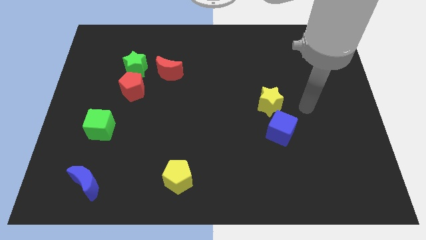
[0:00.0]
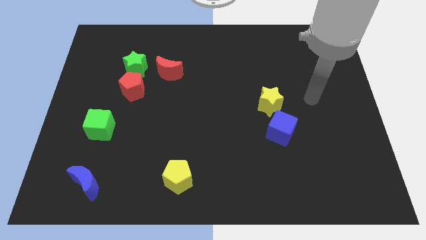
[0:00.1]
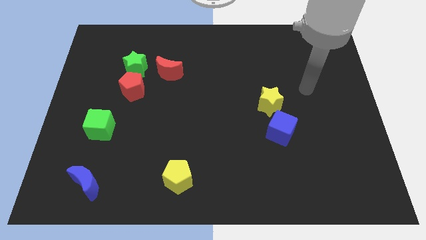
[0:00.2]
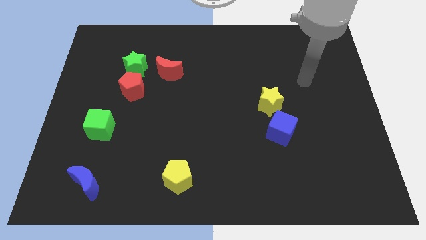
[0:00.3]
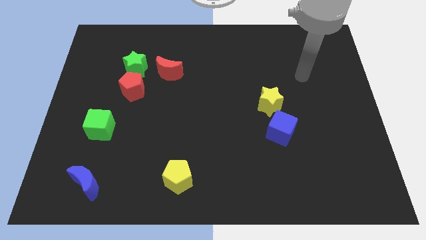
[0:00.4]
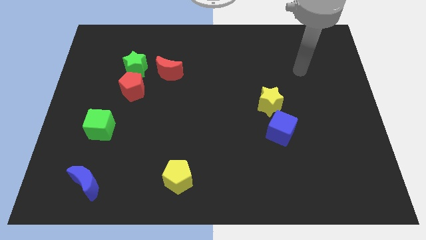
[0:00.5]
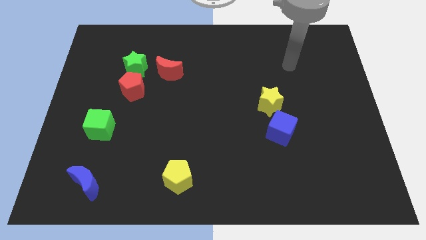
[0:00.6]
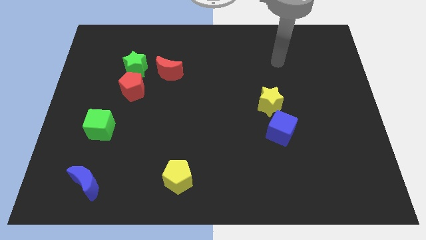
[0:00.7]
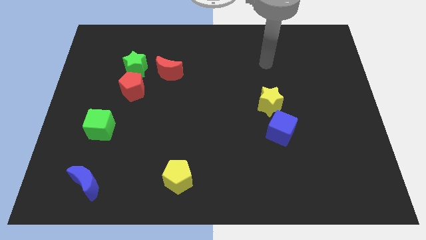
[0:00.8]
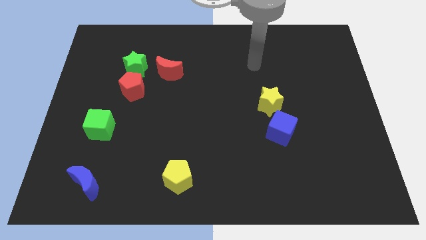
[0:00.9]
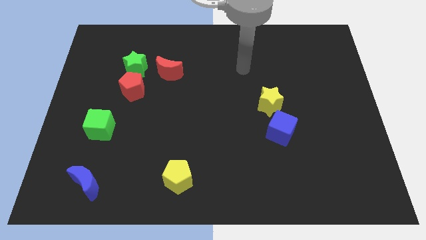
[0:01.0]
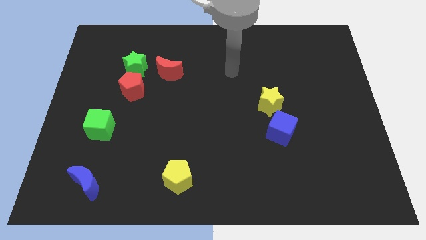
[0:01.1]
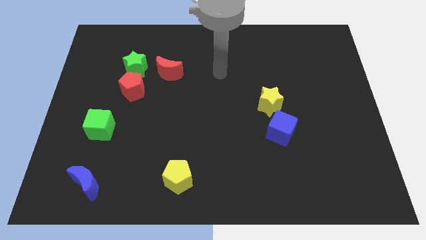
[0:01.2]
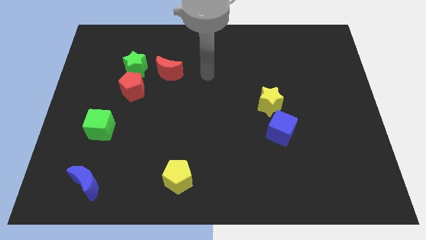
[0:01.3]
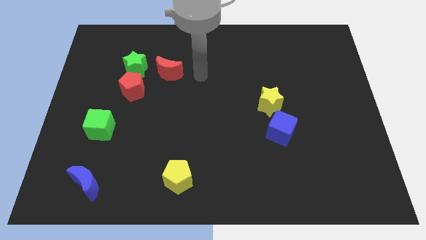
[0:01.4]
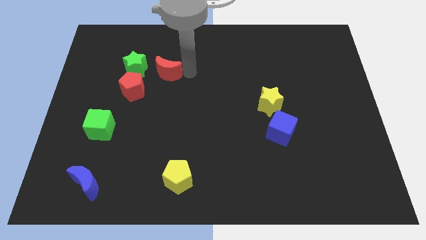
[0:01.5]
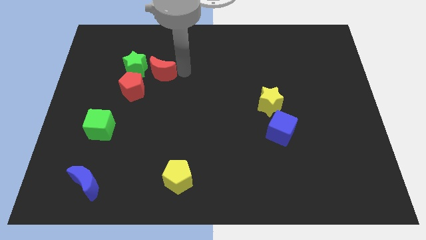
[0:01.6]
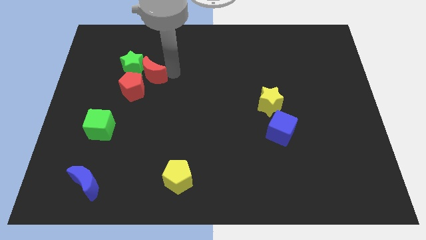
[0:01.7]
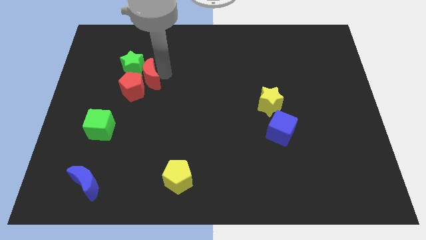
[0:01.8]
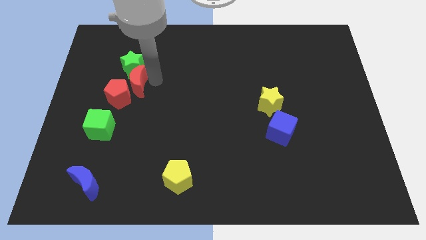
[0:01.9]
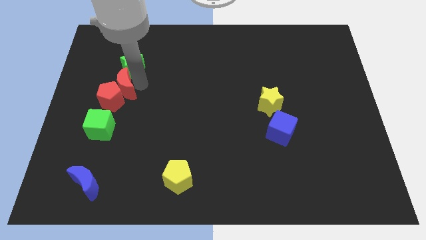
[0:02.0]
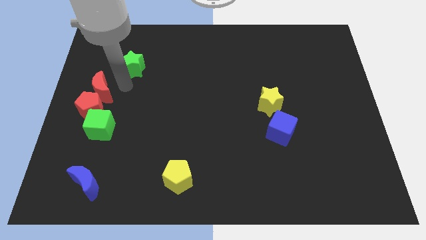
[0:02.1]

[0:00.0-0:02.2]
move the green star away from the red pentagon and red moon

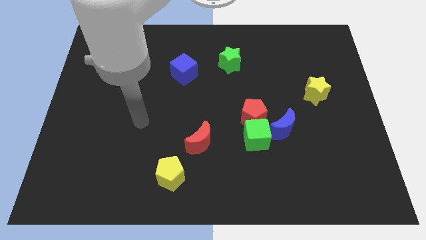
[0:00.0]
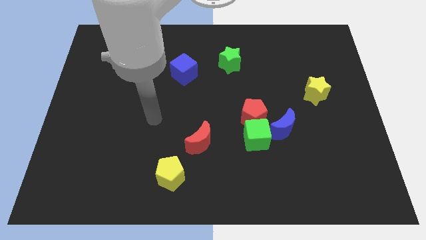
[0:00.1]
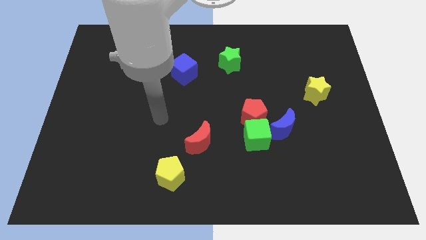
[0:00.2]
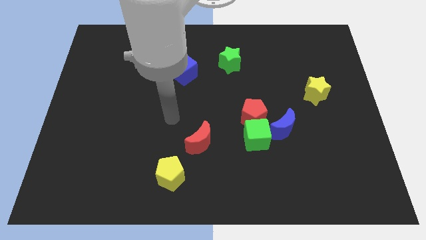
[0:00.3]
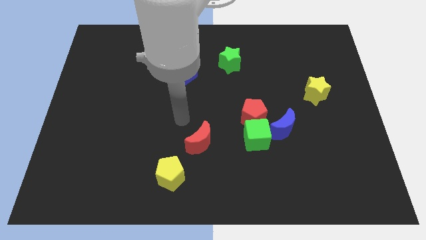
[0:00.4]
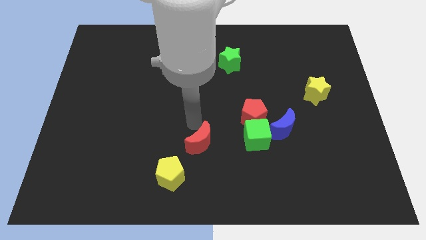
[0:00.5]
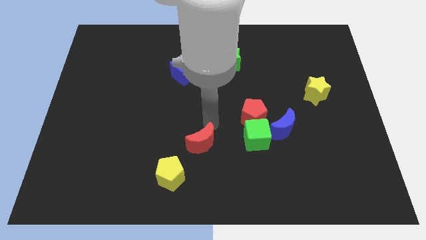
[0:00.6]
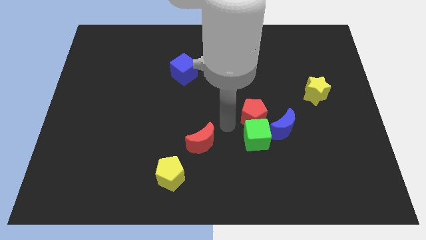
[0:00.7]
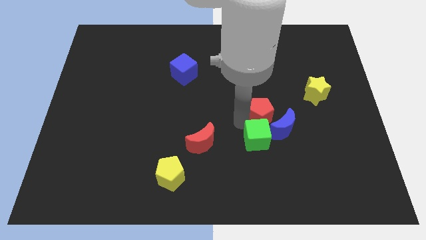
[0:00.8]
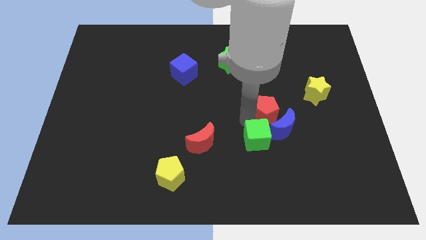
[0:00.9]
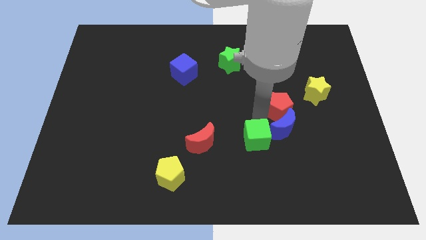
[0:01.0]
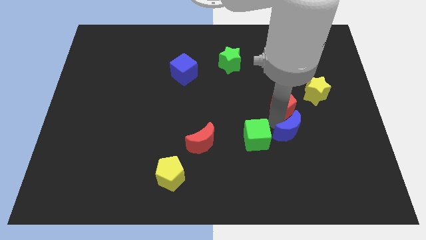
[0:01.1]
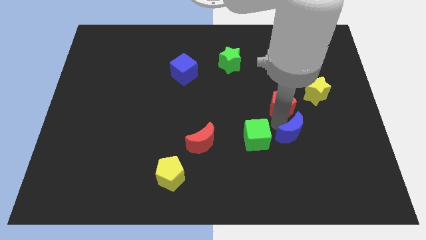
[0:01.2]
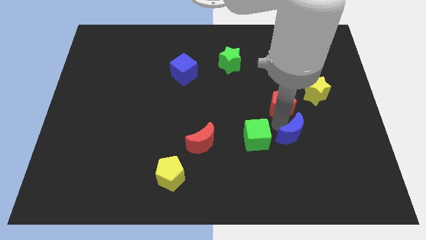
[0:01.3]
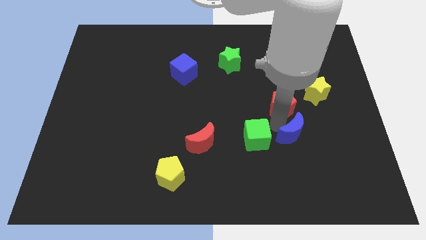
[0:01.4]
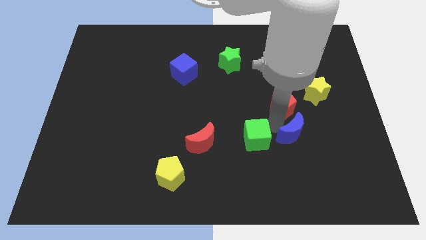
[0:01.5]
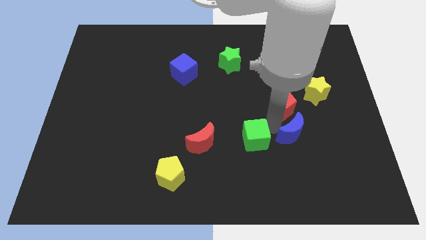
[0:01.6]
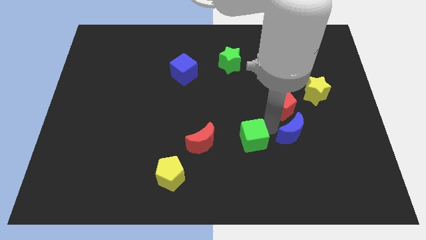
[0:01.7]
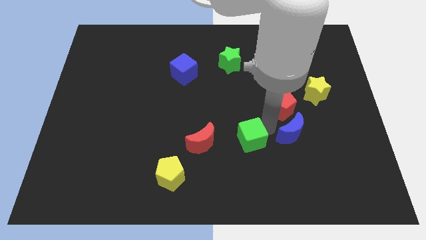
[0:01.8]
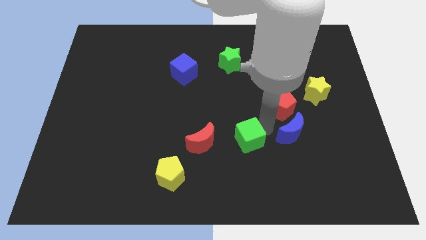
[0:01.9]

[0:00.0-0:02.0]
move the green cube away from the red pentagon and blue moon

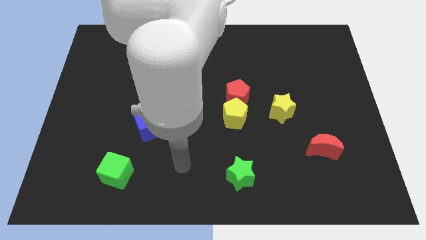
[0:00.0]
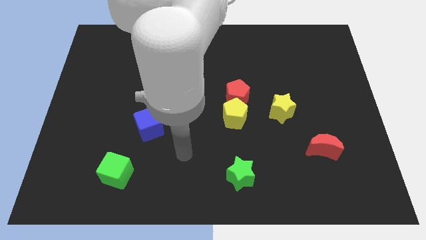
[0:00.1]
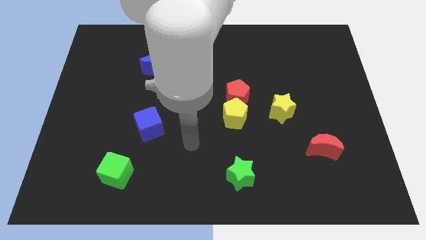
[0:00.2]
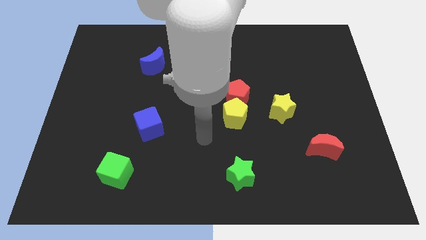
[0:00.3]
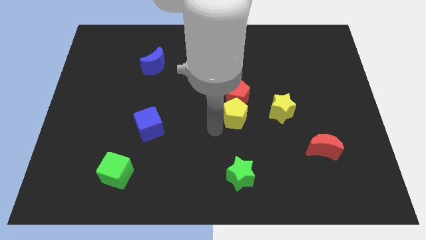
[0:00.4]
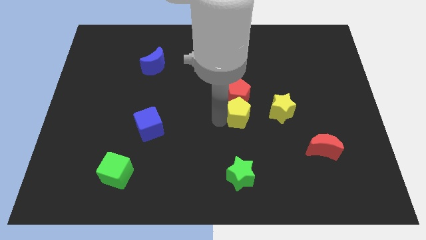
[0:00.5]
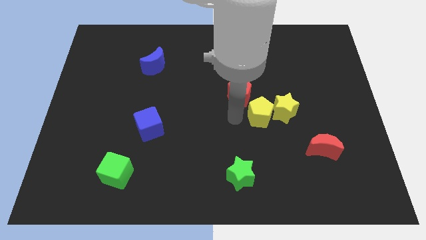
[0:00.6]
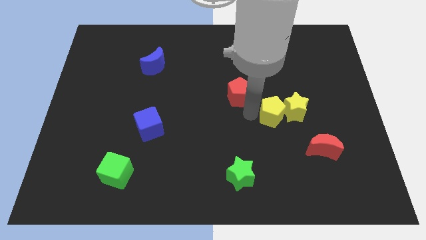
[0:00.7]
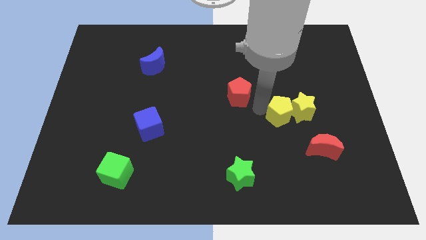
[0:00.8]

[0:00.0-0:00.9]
pull the red pentagon apart from the yellow pentagon

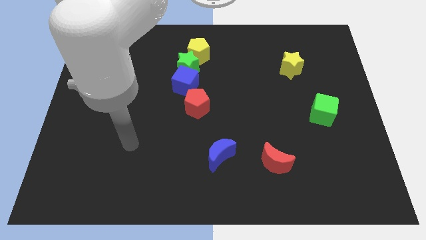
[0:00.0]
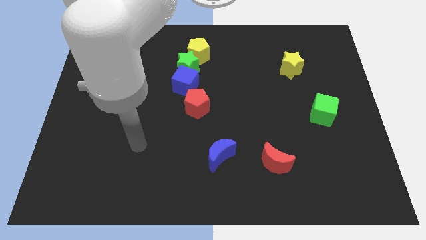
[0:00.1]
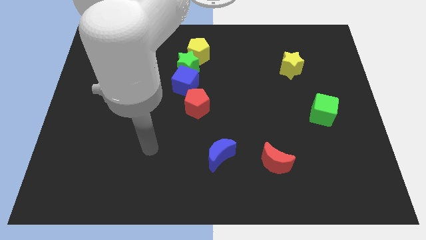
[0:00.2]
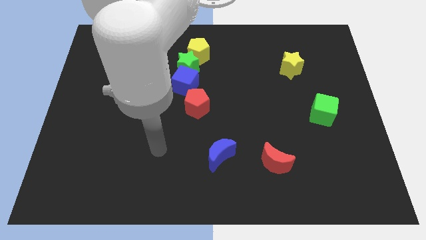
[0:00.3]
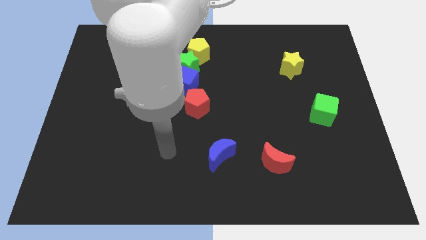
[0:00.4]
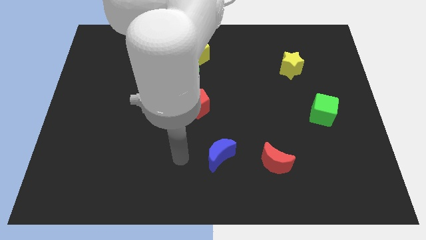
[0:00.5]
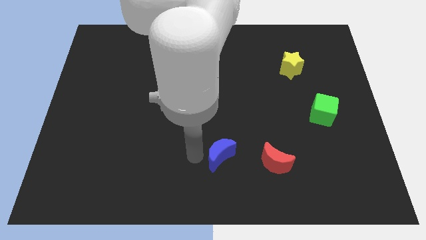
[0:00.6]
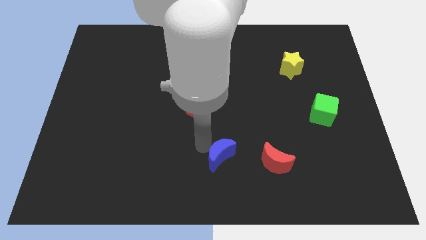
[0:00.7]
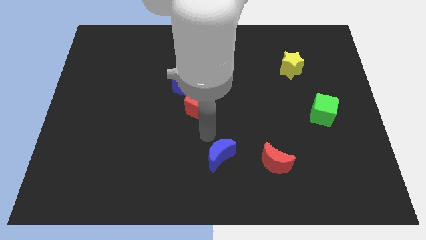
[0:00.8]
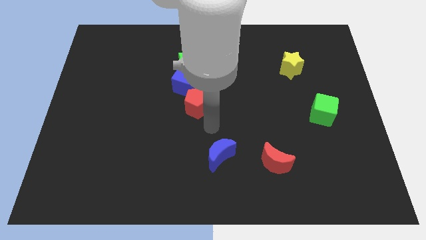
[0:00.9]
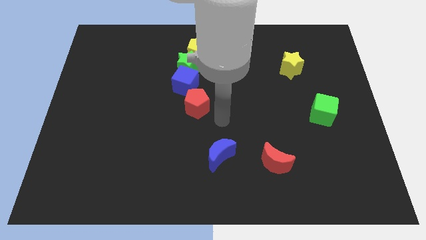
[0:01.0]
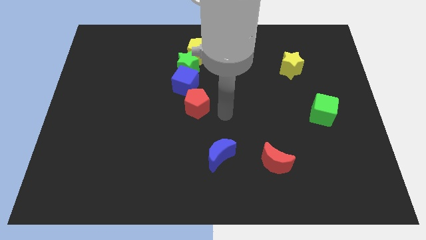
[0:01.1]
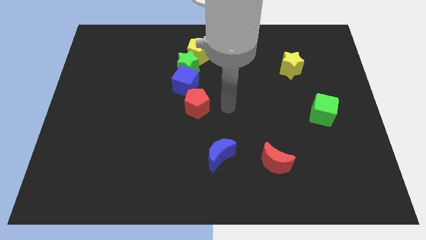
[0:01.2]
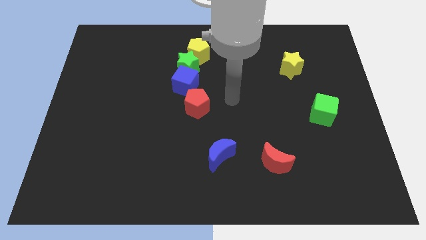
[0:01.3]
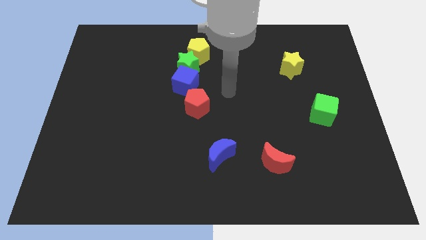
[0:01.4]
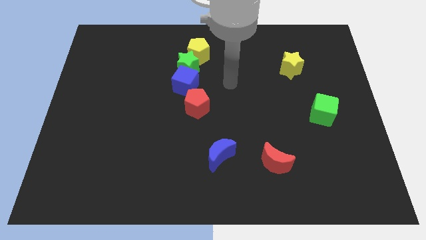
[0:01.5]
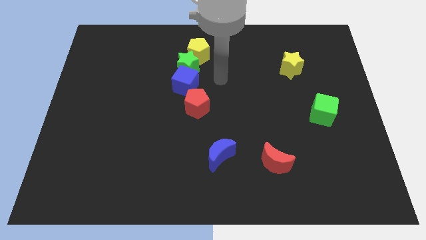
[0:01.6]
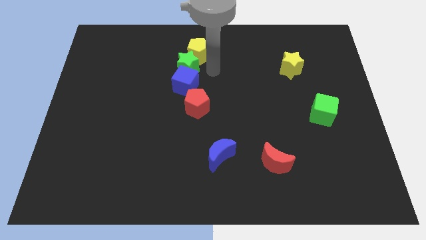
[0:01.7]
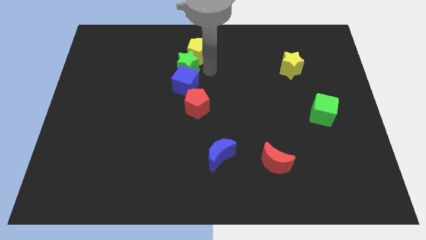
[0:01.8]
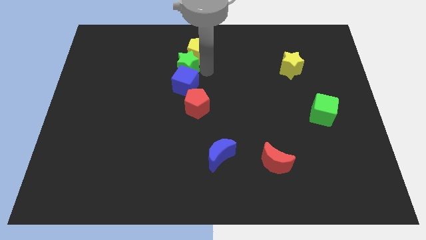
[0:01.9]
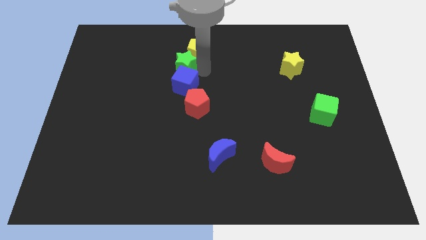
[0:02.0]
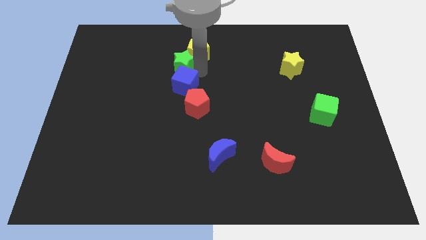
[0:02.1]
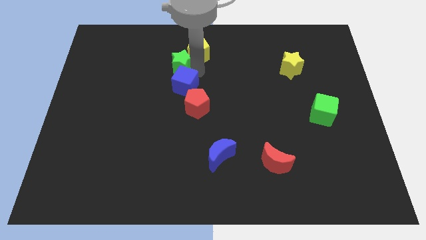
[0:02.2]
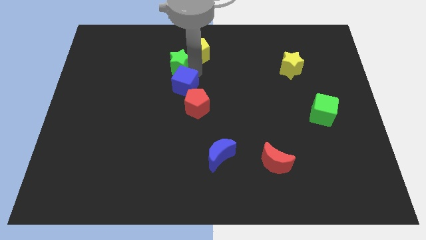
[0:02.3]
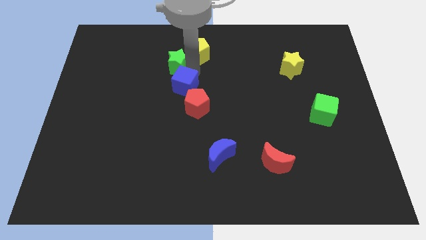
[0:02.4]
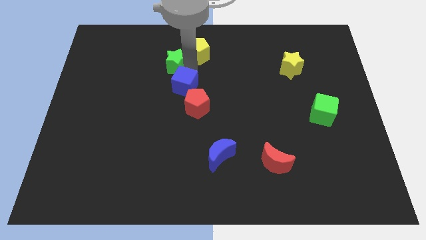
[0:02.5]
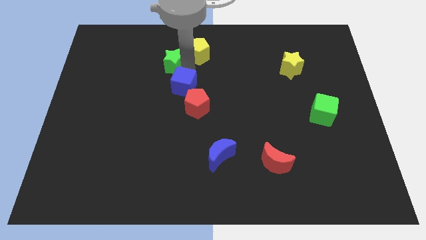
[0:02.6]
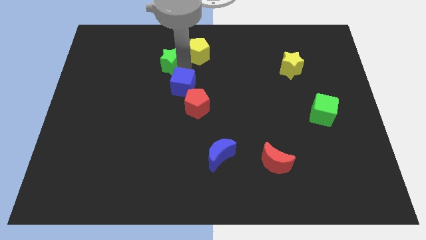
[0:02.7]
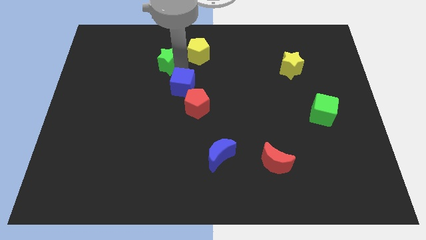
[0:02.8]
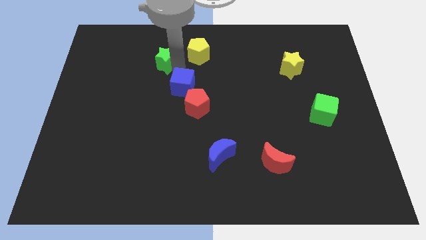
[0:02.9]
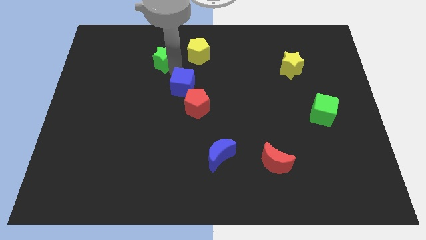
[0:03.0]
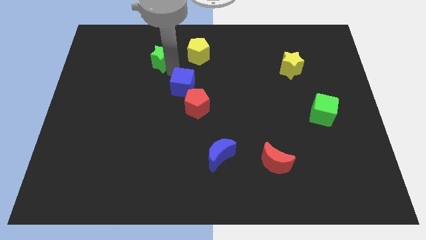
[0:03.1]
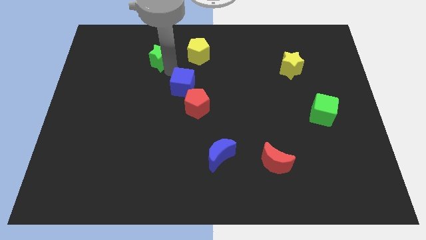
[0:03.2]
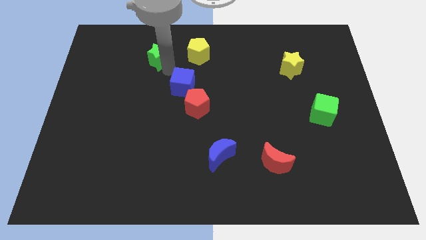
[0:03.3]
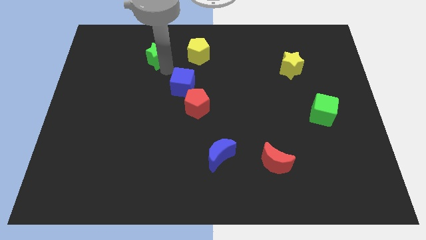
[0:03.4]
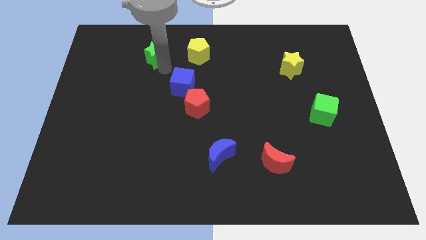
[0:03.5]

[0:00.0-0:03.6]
pull the green star apart from the blue cube and yellow pentagon

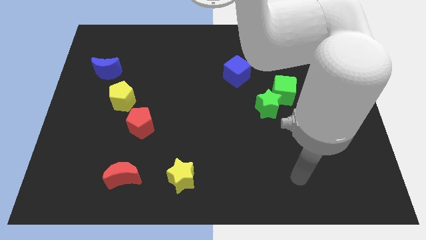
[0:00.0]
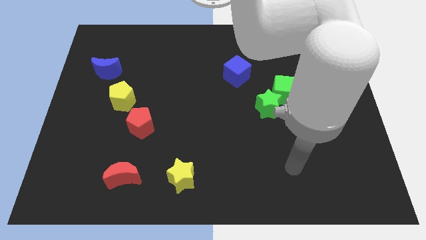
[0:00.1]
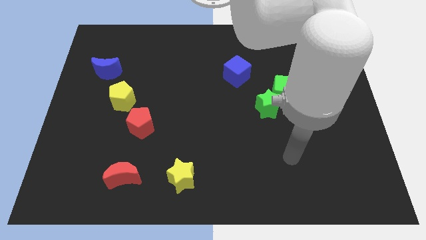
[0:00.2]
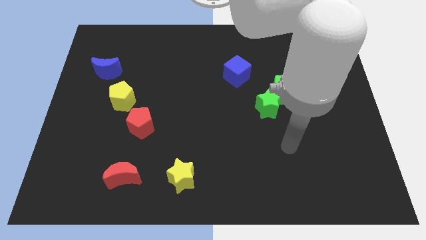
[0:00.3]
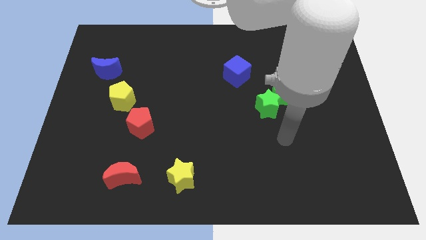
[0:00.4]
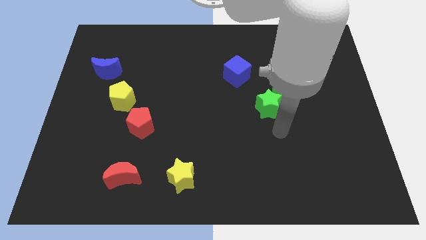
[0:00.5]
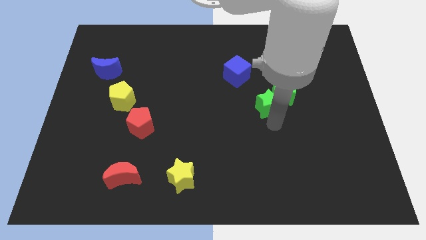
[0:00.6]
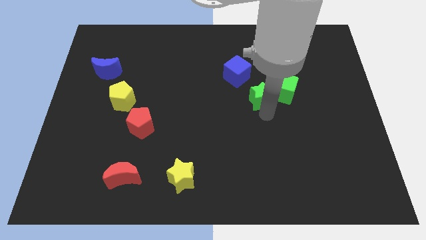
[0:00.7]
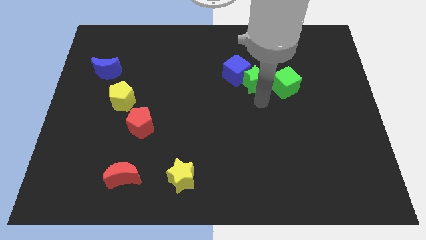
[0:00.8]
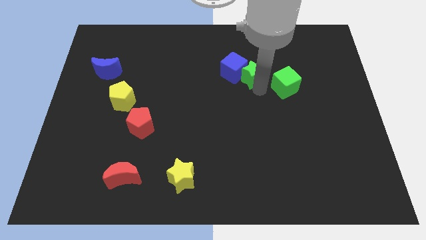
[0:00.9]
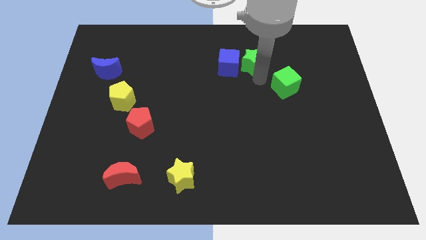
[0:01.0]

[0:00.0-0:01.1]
move the green cube away from the green star
